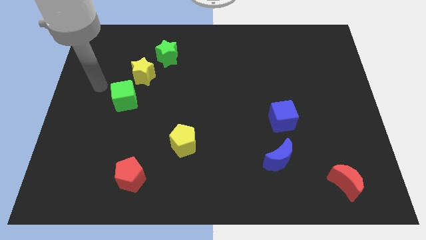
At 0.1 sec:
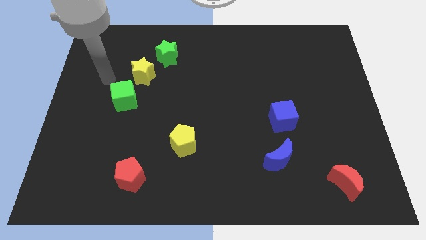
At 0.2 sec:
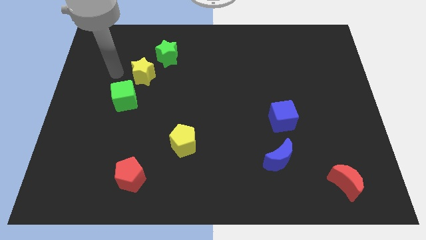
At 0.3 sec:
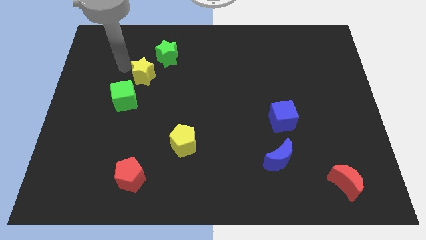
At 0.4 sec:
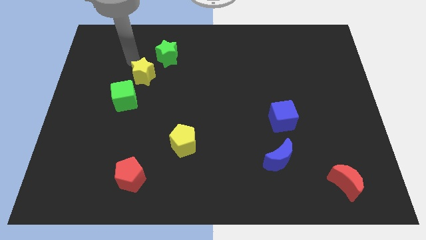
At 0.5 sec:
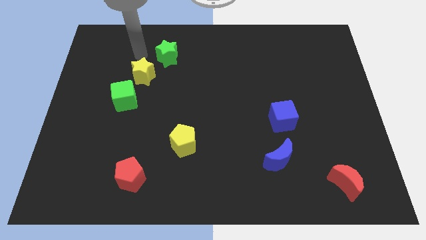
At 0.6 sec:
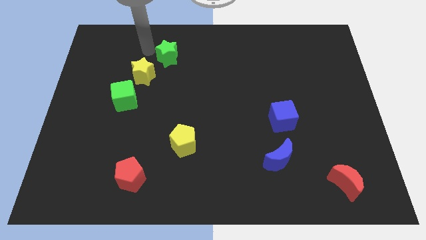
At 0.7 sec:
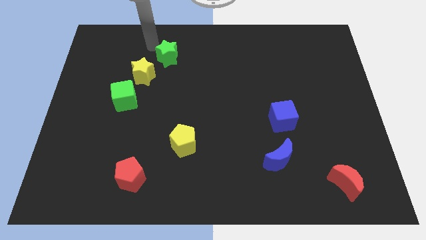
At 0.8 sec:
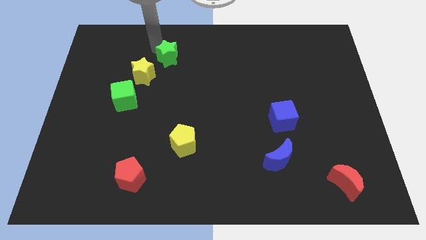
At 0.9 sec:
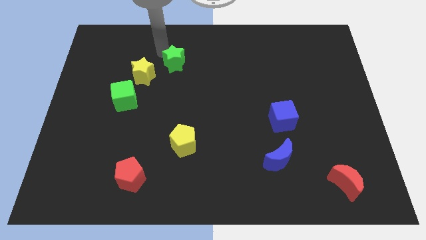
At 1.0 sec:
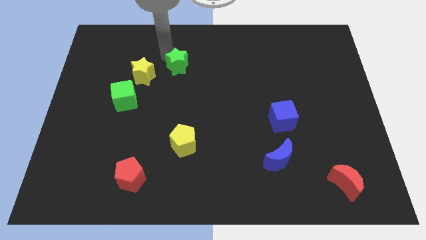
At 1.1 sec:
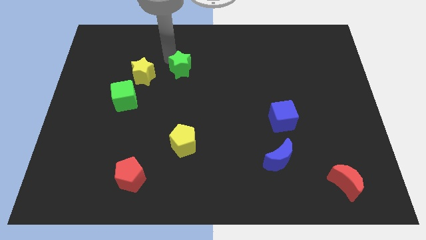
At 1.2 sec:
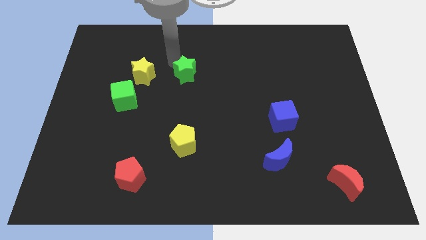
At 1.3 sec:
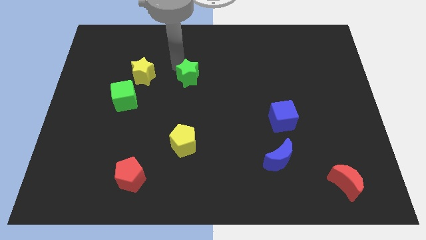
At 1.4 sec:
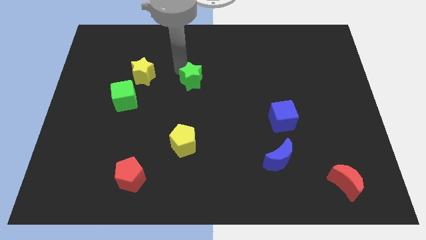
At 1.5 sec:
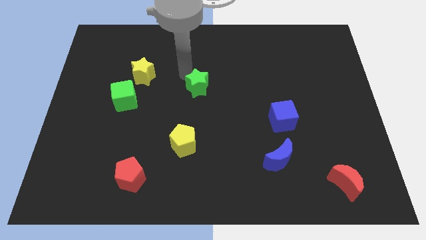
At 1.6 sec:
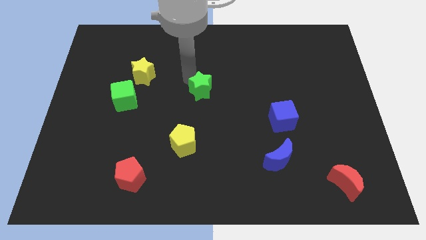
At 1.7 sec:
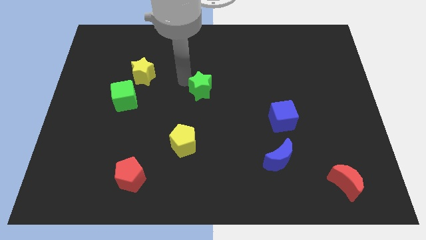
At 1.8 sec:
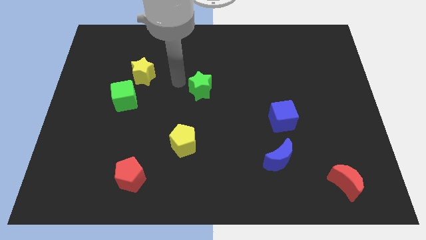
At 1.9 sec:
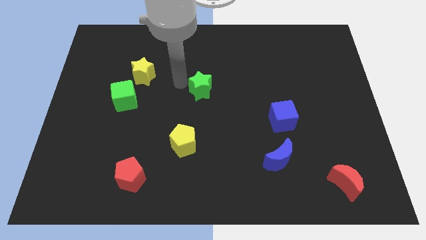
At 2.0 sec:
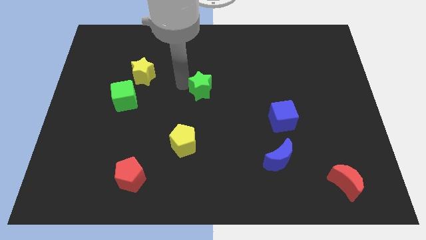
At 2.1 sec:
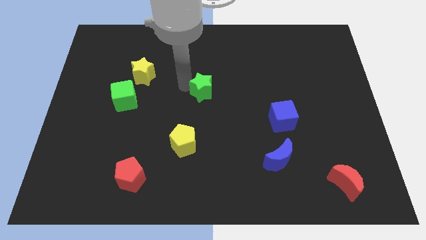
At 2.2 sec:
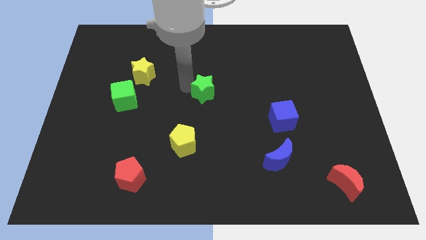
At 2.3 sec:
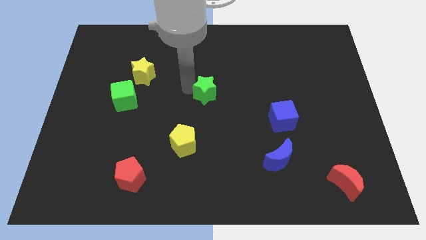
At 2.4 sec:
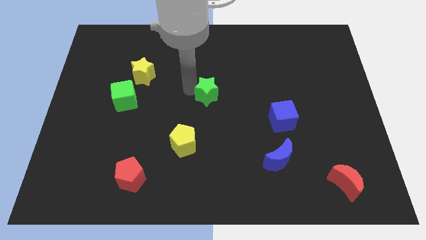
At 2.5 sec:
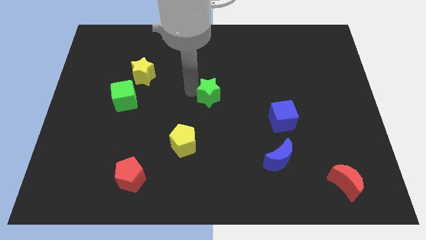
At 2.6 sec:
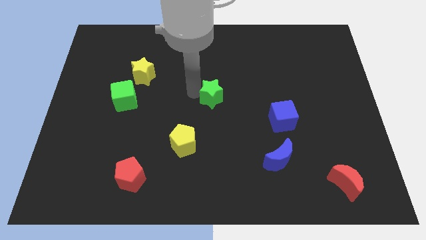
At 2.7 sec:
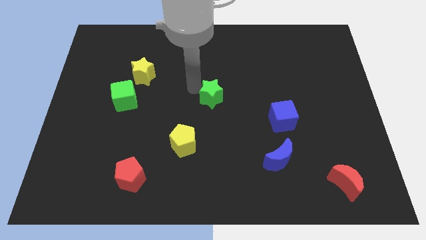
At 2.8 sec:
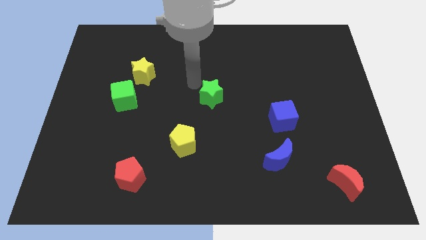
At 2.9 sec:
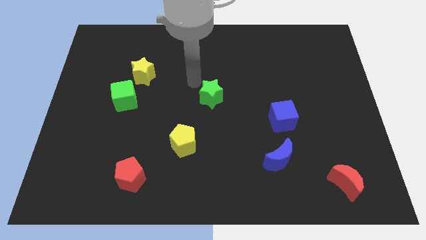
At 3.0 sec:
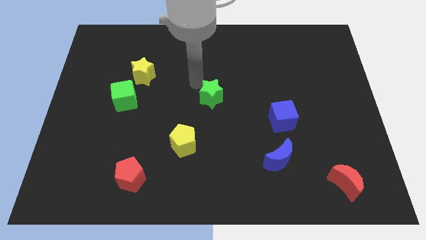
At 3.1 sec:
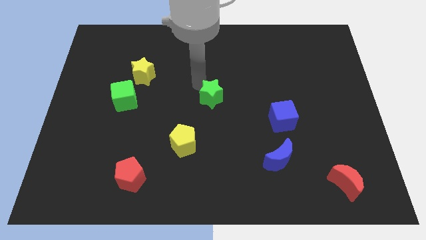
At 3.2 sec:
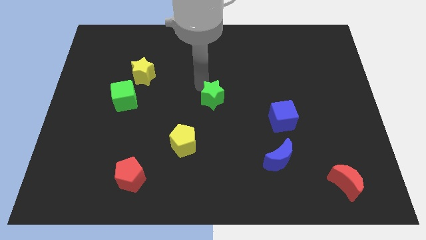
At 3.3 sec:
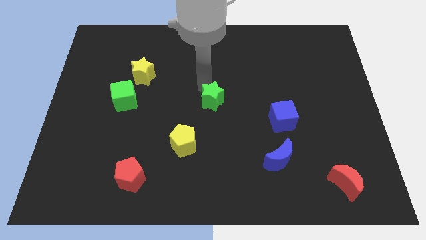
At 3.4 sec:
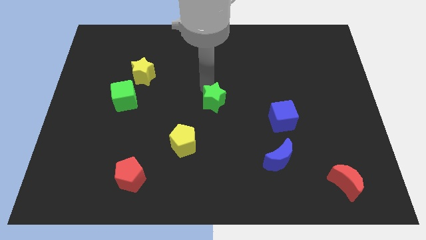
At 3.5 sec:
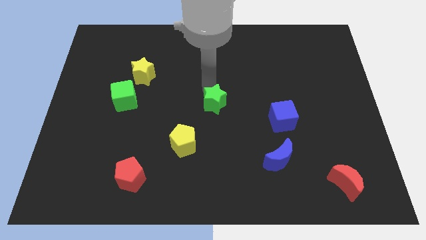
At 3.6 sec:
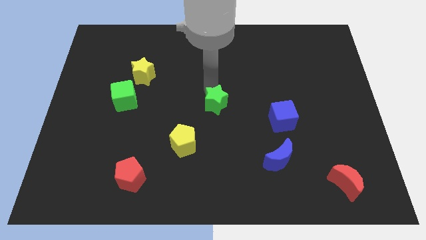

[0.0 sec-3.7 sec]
slide the green star downwards and to the right

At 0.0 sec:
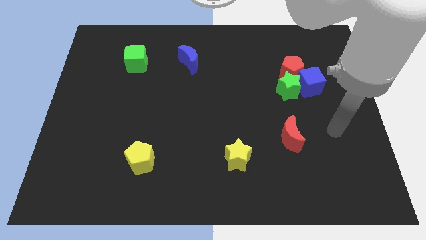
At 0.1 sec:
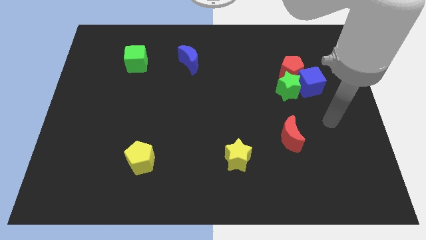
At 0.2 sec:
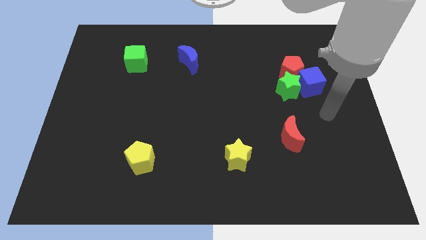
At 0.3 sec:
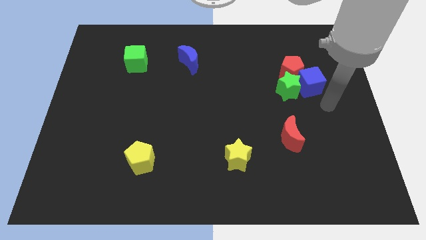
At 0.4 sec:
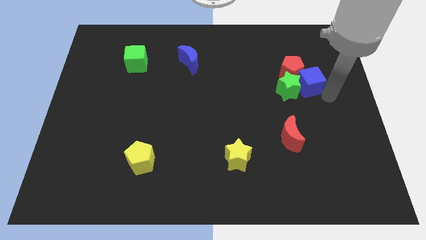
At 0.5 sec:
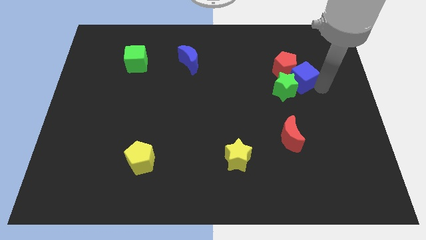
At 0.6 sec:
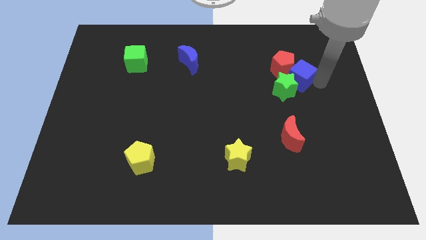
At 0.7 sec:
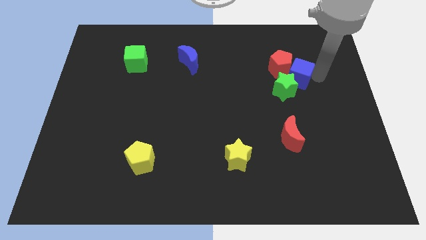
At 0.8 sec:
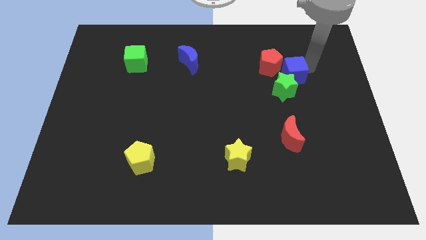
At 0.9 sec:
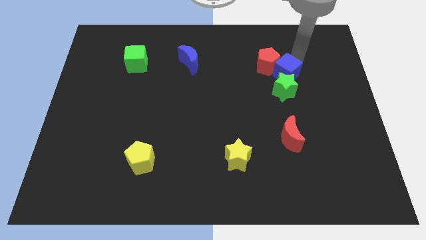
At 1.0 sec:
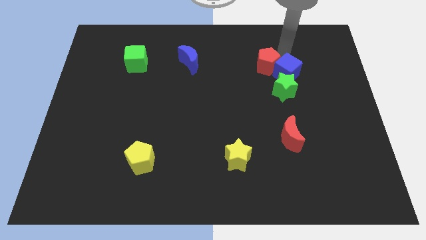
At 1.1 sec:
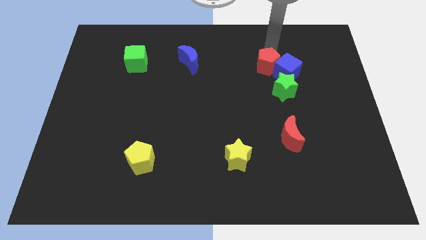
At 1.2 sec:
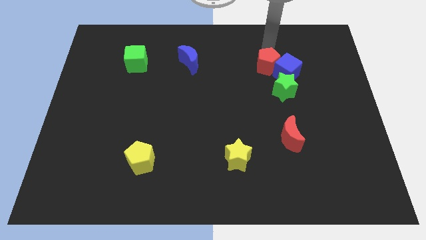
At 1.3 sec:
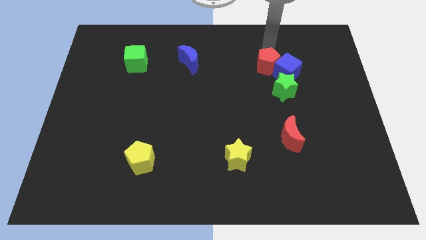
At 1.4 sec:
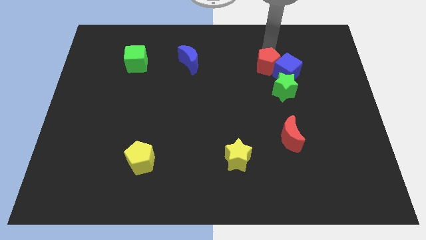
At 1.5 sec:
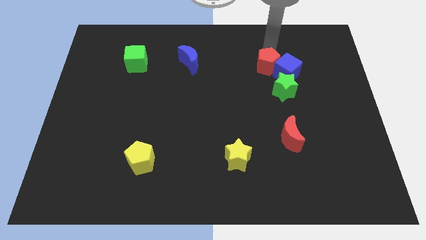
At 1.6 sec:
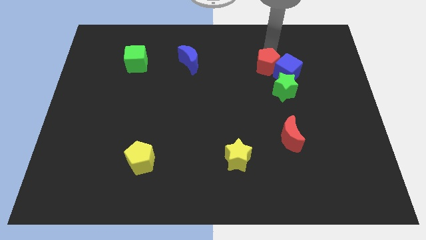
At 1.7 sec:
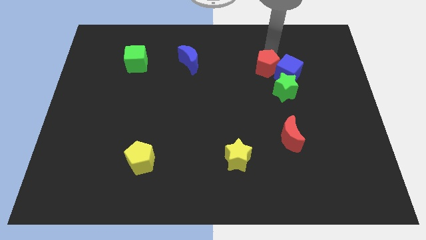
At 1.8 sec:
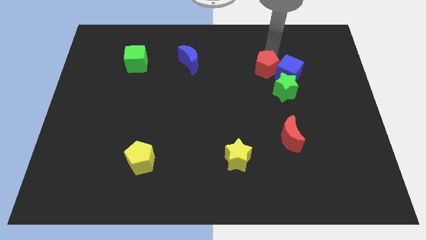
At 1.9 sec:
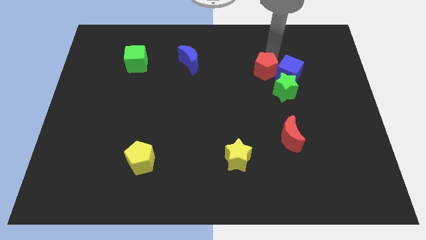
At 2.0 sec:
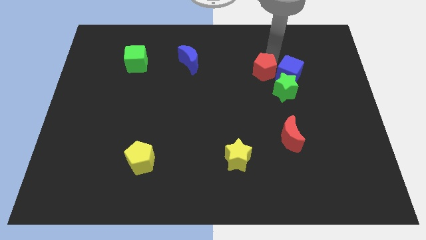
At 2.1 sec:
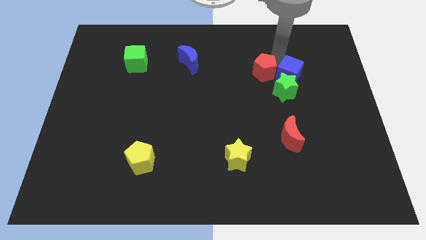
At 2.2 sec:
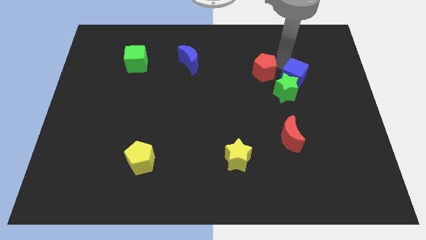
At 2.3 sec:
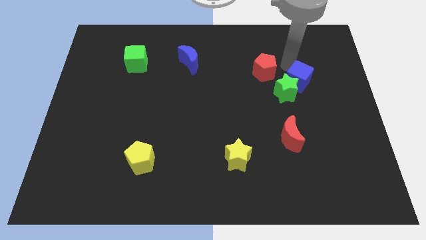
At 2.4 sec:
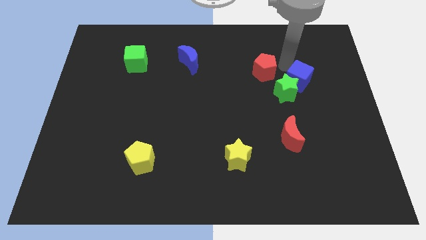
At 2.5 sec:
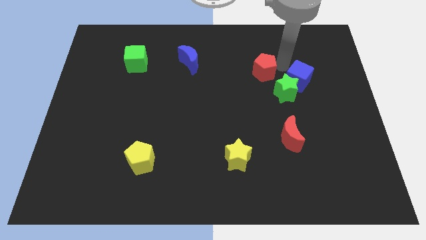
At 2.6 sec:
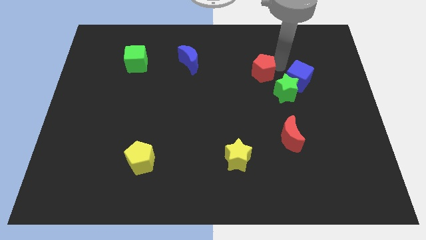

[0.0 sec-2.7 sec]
move the red pentagon a little bit left

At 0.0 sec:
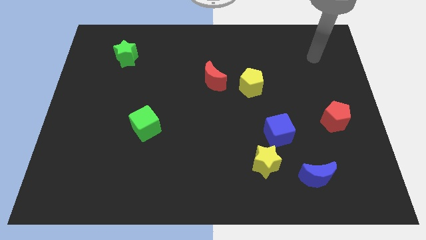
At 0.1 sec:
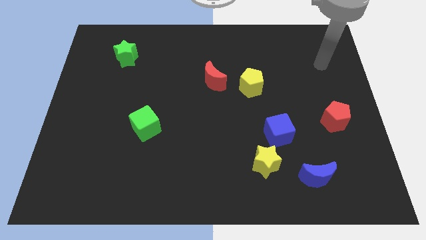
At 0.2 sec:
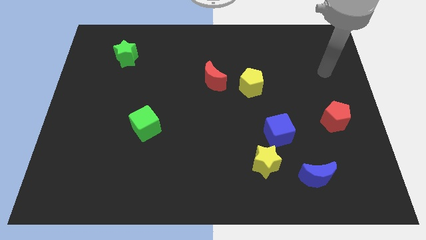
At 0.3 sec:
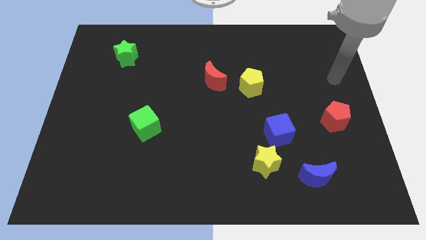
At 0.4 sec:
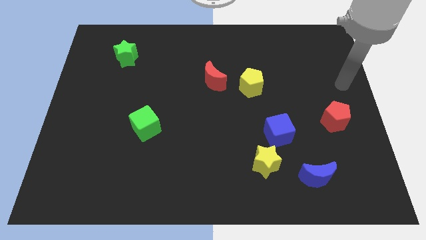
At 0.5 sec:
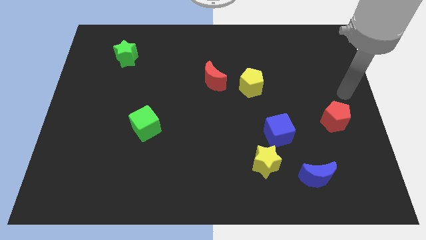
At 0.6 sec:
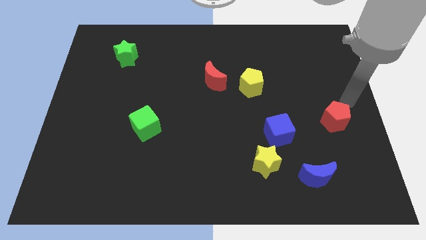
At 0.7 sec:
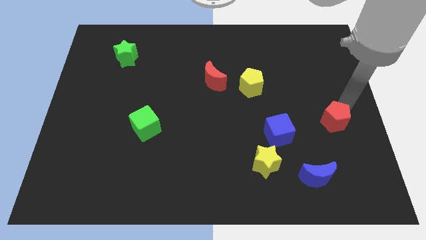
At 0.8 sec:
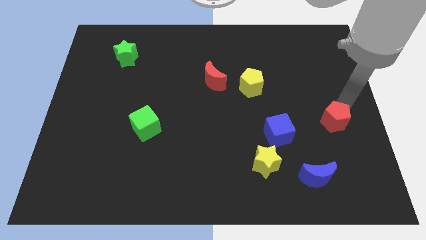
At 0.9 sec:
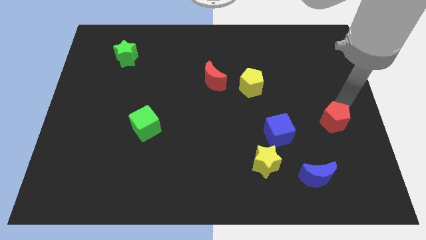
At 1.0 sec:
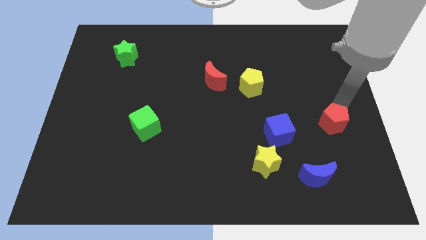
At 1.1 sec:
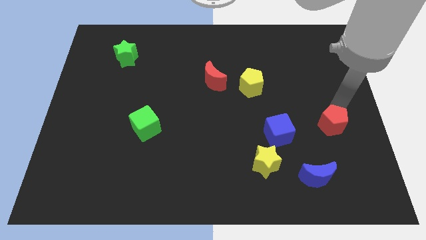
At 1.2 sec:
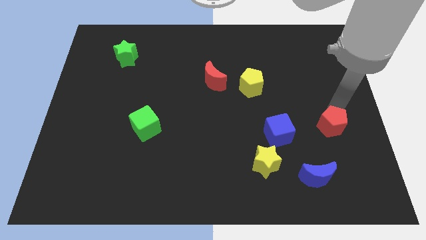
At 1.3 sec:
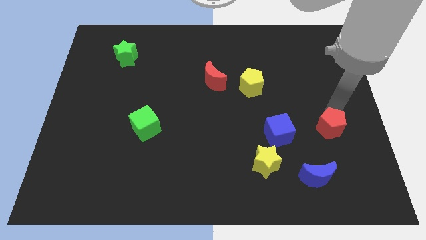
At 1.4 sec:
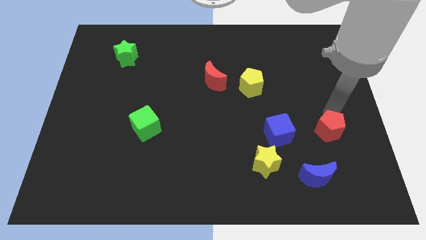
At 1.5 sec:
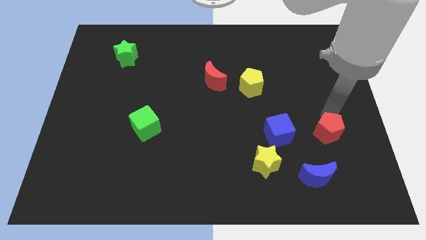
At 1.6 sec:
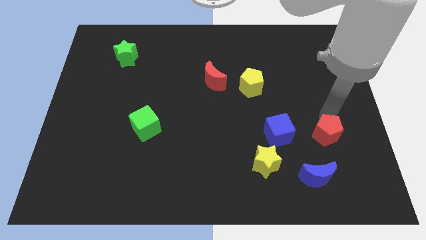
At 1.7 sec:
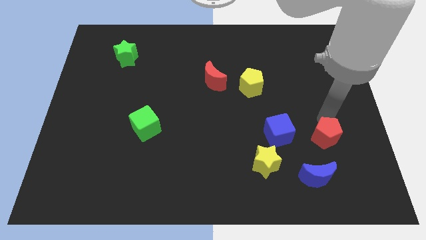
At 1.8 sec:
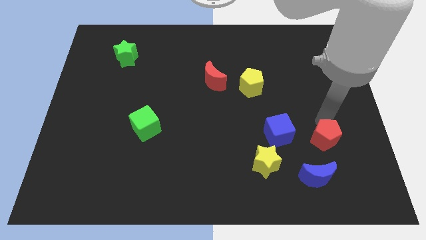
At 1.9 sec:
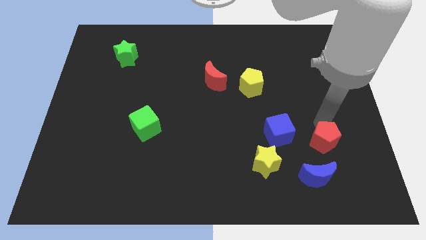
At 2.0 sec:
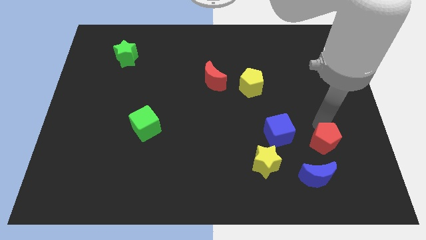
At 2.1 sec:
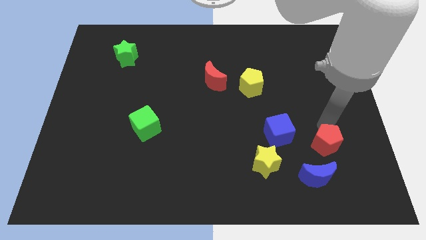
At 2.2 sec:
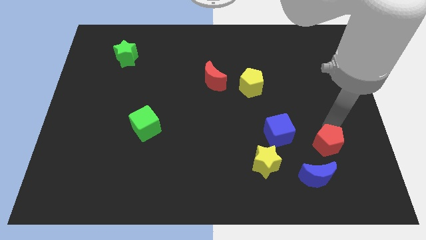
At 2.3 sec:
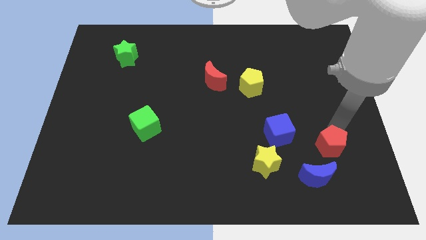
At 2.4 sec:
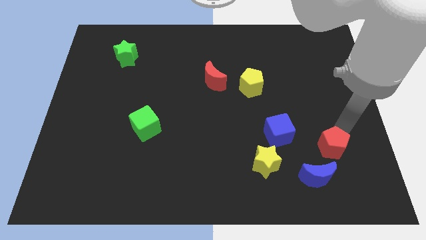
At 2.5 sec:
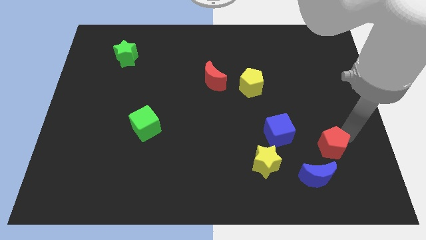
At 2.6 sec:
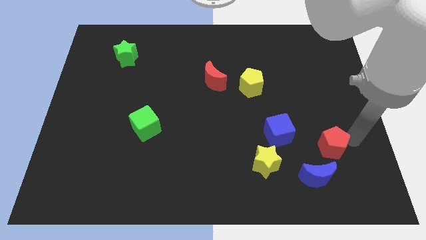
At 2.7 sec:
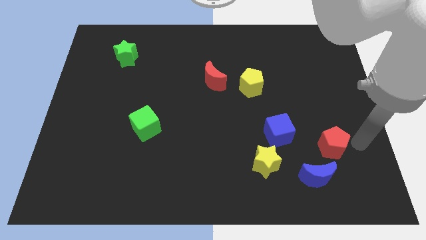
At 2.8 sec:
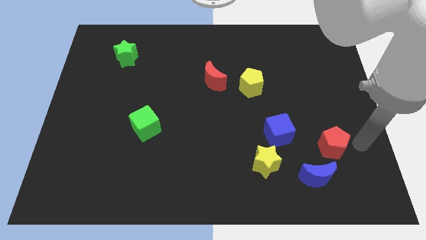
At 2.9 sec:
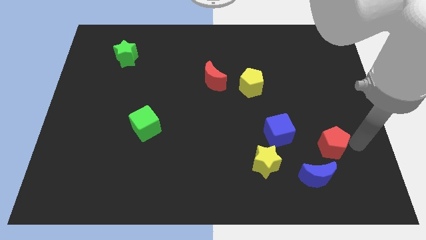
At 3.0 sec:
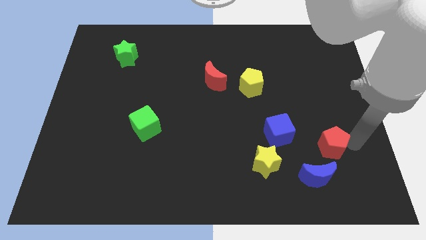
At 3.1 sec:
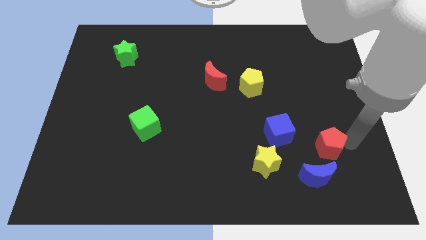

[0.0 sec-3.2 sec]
slightly push the red pentagon downwards and to the left diagonally
